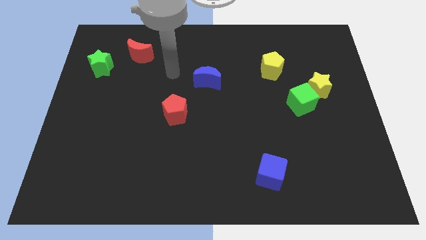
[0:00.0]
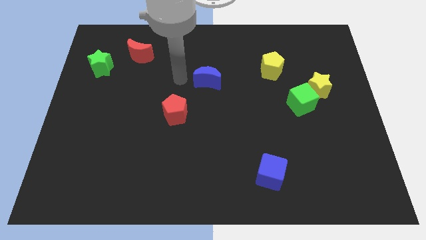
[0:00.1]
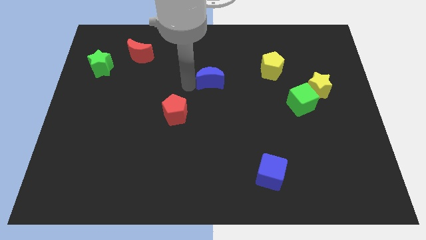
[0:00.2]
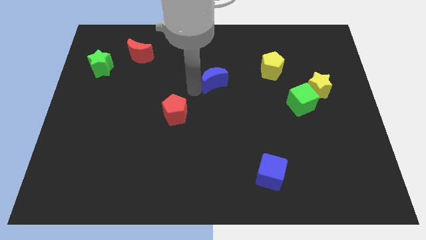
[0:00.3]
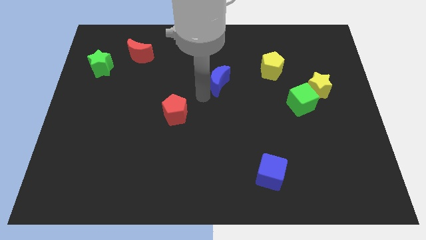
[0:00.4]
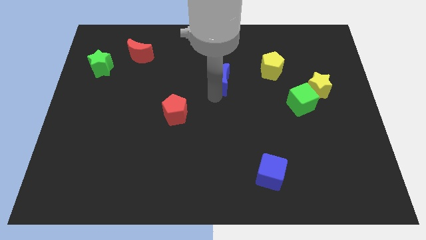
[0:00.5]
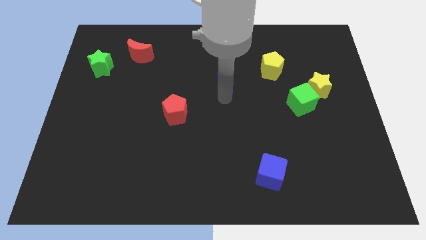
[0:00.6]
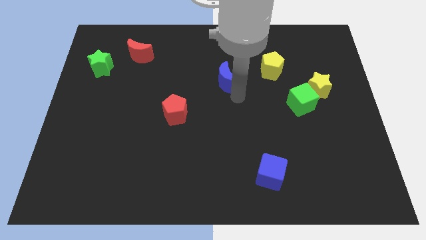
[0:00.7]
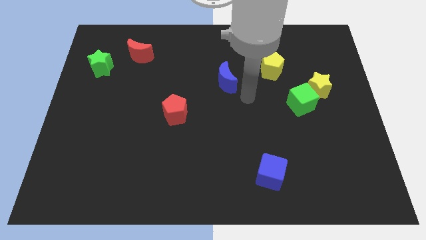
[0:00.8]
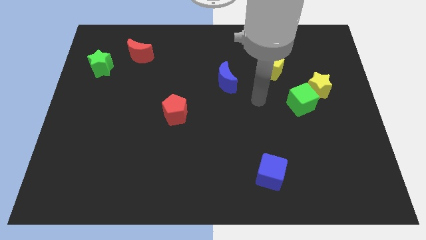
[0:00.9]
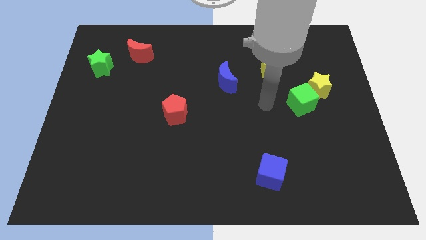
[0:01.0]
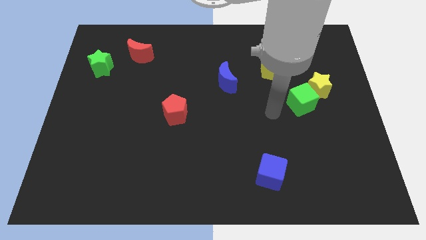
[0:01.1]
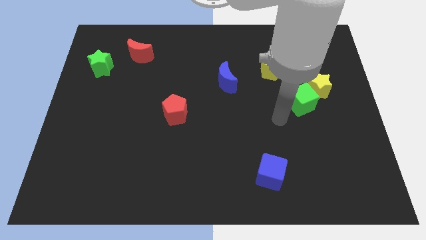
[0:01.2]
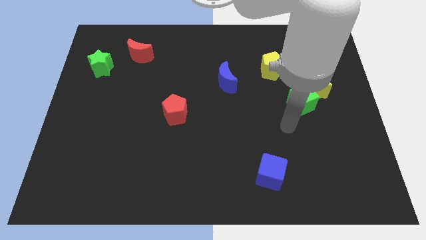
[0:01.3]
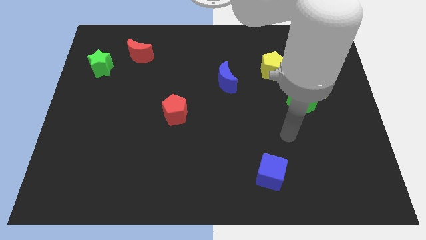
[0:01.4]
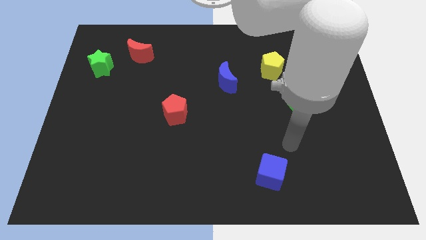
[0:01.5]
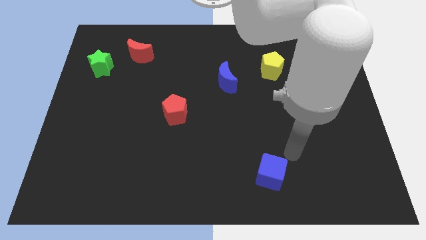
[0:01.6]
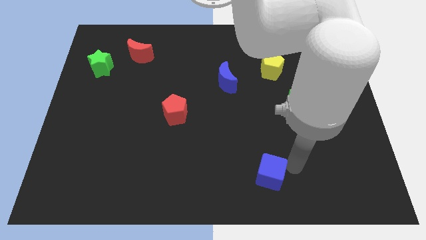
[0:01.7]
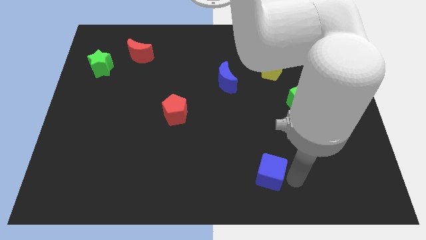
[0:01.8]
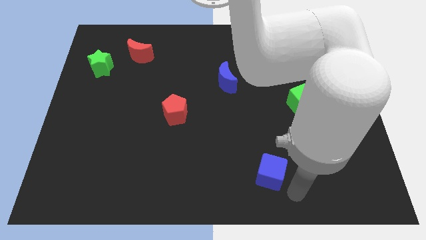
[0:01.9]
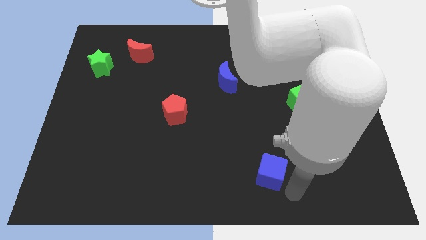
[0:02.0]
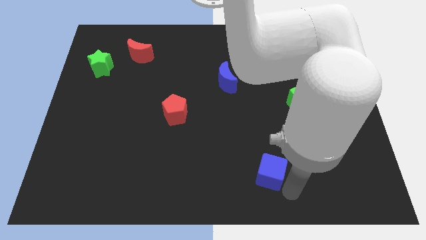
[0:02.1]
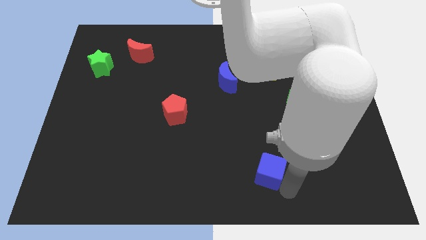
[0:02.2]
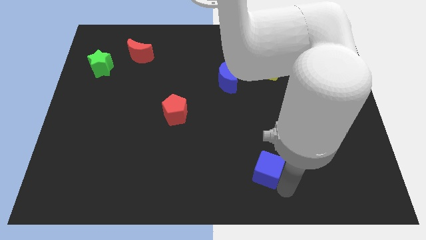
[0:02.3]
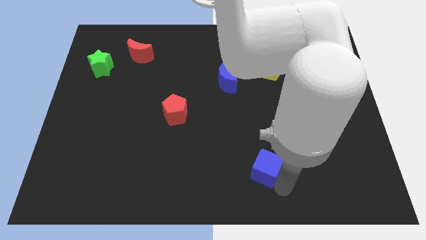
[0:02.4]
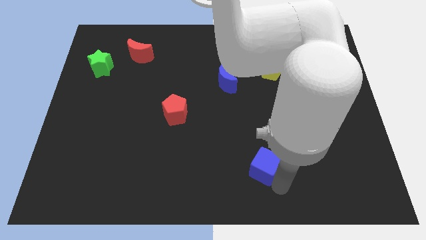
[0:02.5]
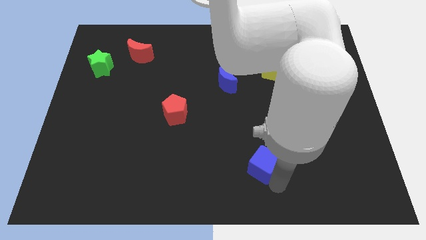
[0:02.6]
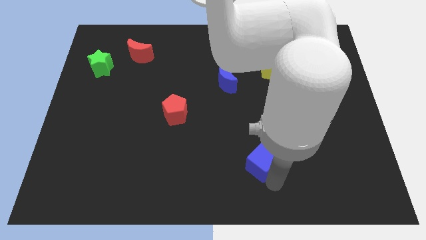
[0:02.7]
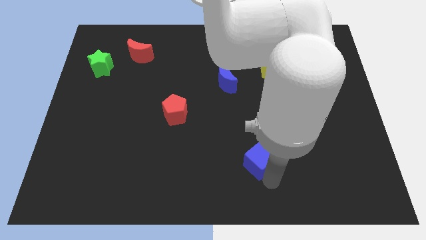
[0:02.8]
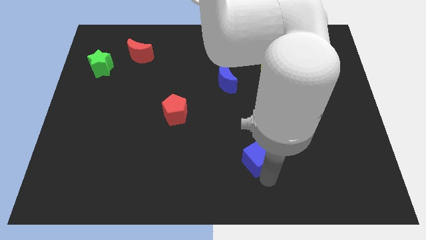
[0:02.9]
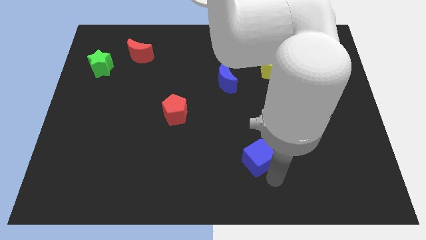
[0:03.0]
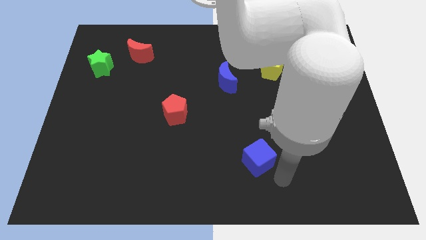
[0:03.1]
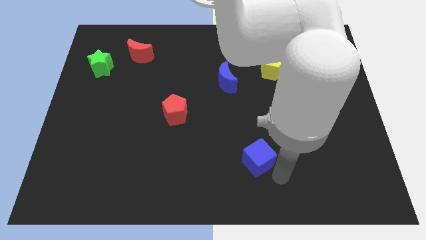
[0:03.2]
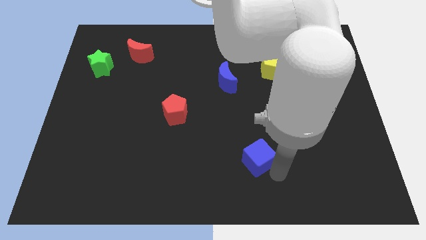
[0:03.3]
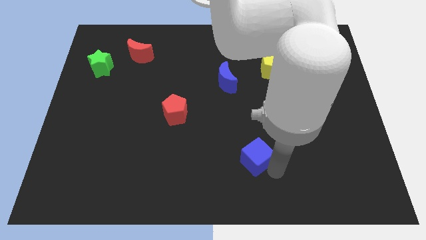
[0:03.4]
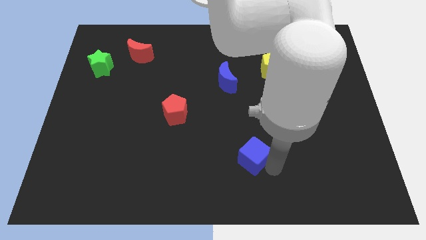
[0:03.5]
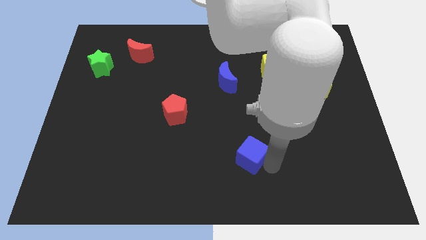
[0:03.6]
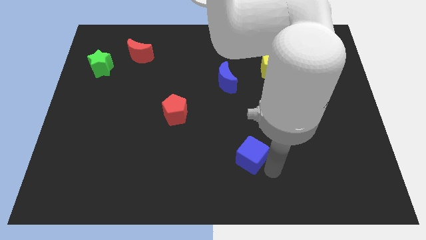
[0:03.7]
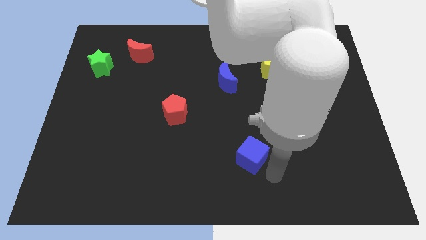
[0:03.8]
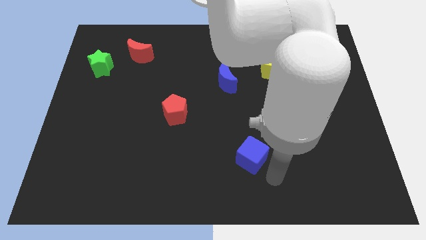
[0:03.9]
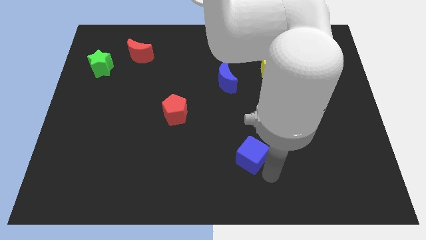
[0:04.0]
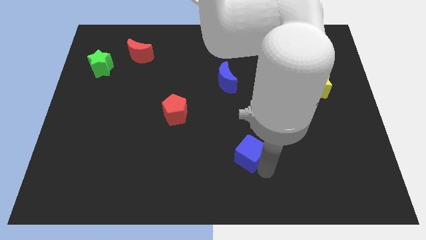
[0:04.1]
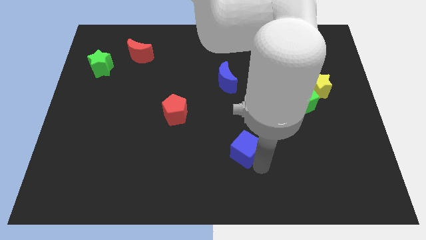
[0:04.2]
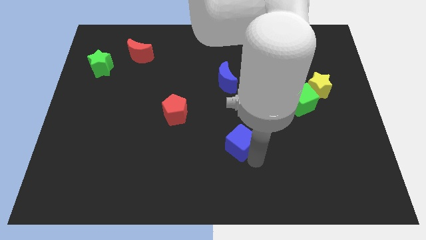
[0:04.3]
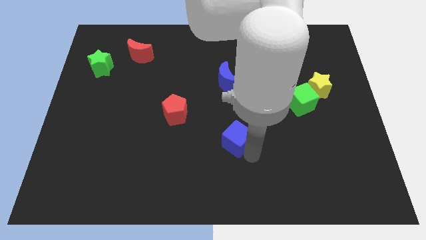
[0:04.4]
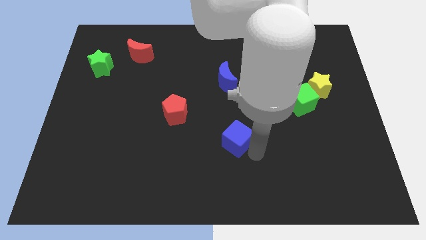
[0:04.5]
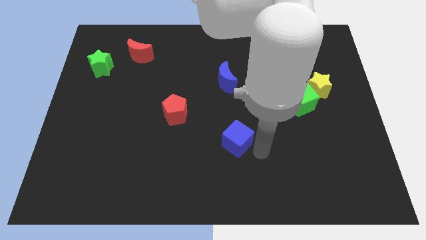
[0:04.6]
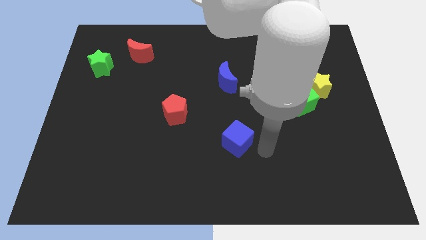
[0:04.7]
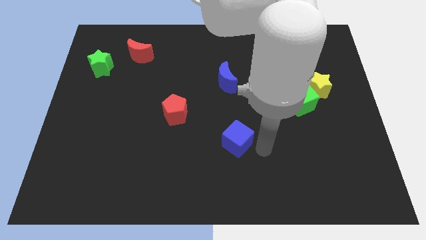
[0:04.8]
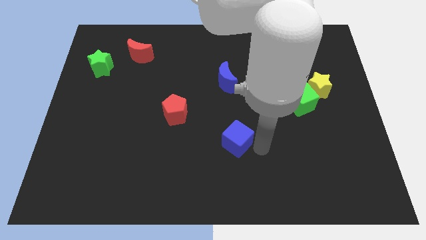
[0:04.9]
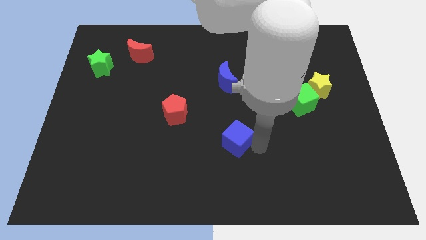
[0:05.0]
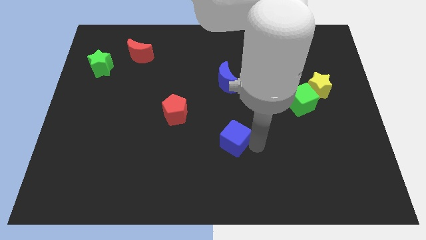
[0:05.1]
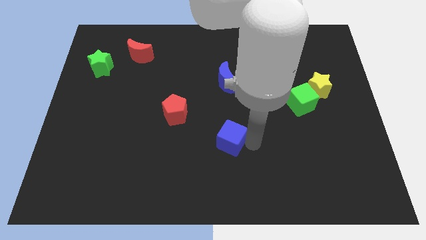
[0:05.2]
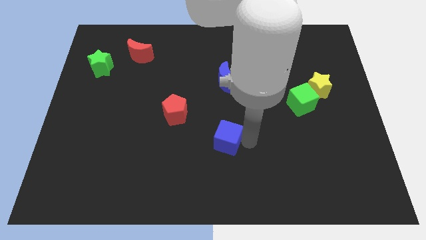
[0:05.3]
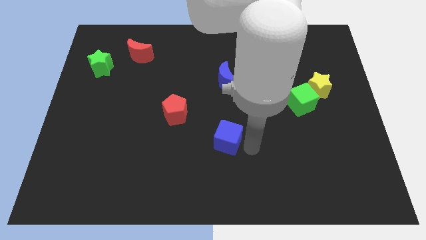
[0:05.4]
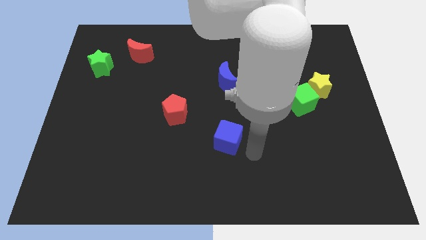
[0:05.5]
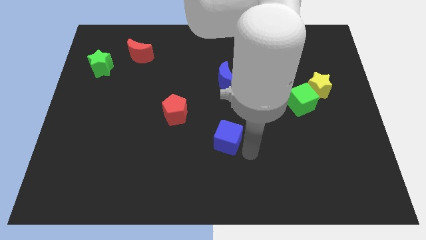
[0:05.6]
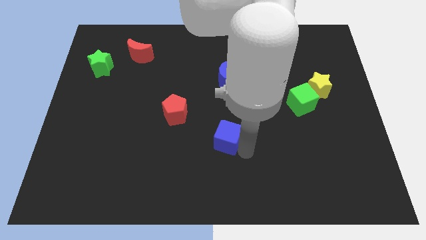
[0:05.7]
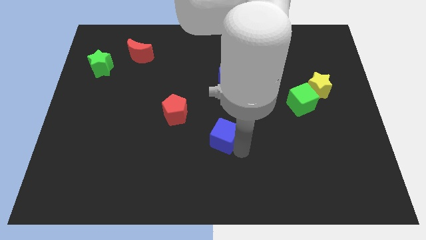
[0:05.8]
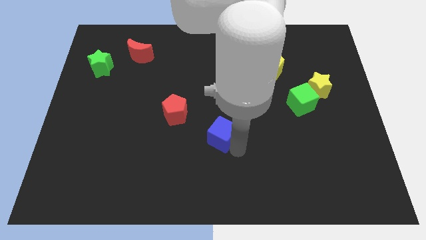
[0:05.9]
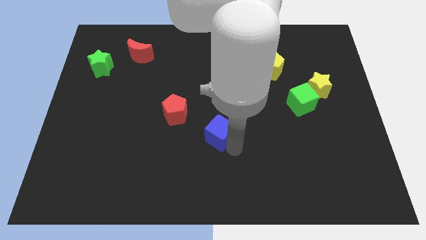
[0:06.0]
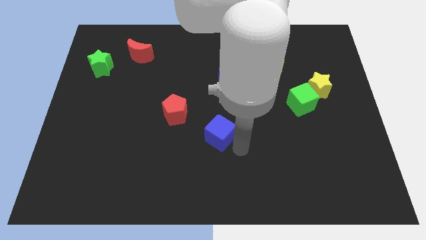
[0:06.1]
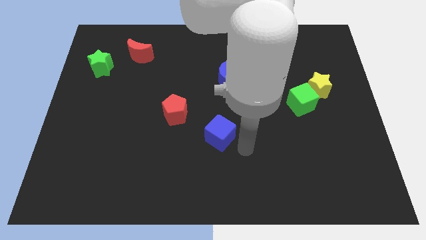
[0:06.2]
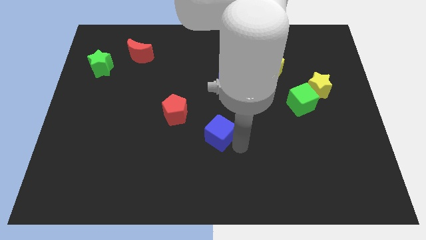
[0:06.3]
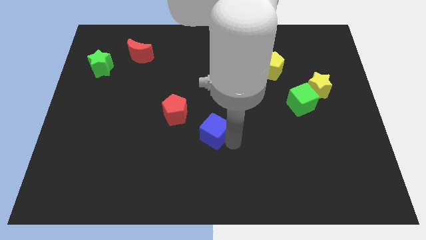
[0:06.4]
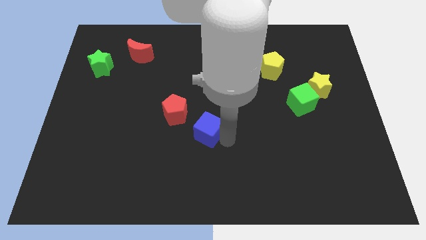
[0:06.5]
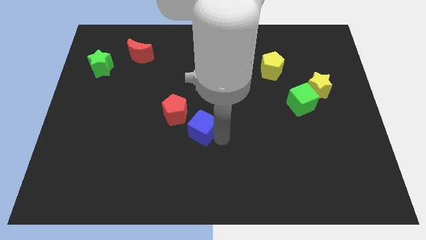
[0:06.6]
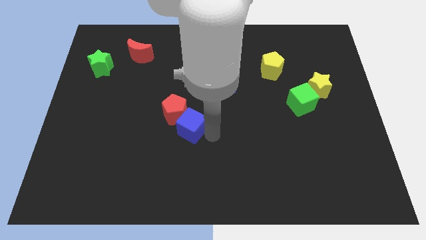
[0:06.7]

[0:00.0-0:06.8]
move the blue cube to the red pentagon

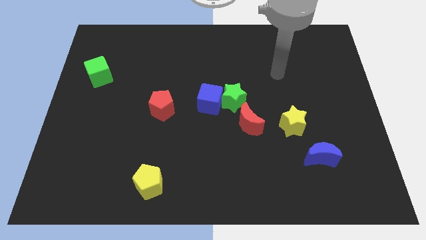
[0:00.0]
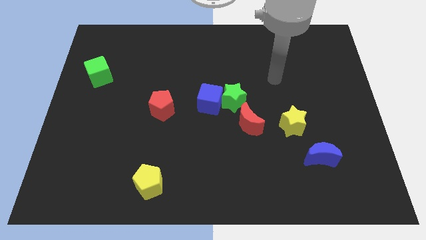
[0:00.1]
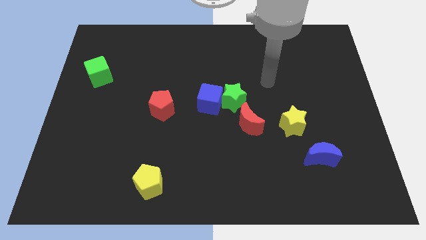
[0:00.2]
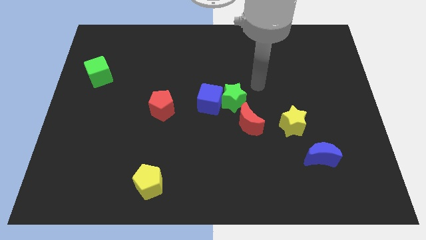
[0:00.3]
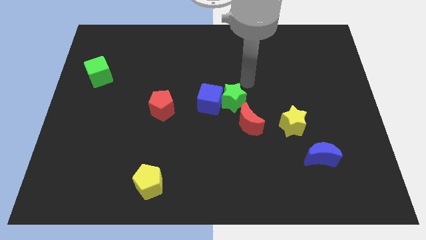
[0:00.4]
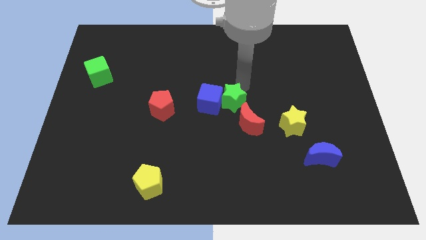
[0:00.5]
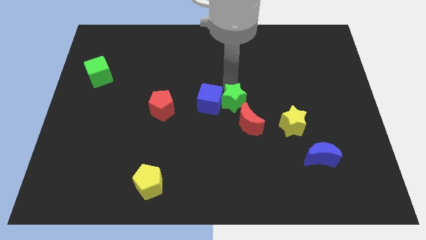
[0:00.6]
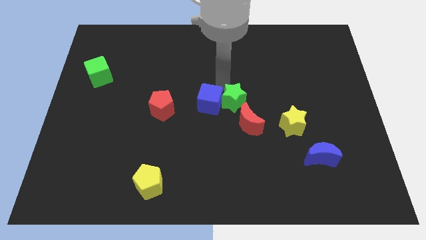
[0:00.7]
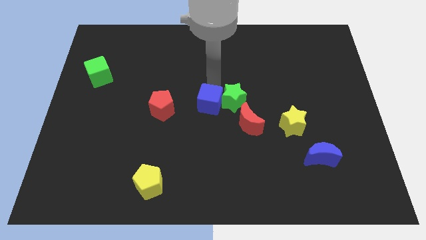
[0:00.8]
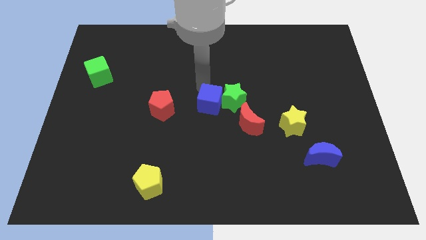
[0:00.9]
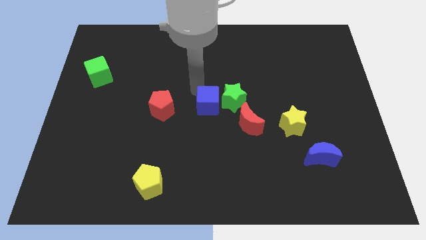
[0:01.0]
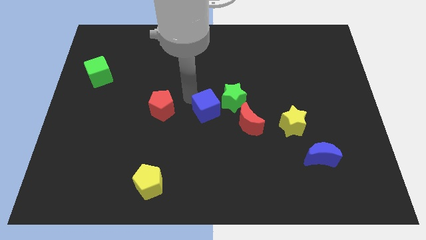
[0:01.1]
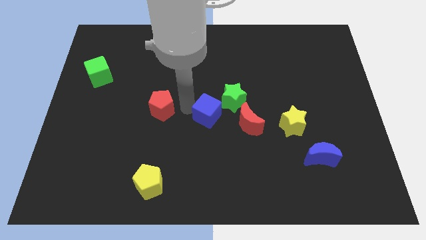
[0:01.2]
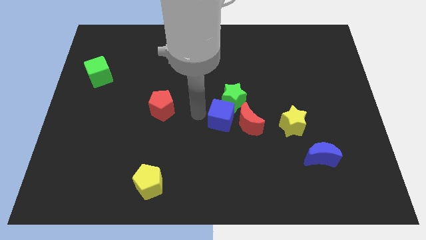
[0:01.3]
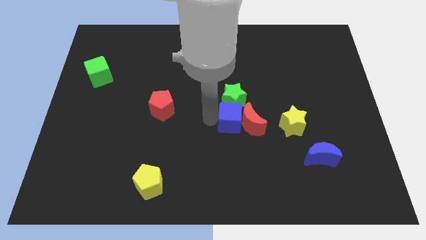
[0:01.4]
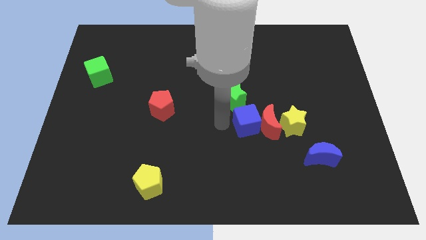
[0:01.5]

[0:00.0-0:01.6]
push the red moon to the yellow star
